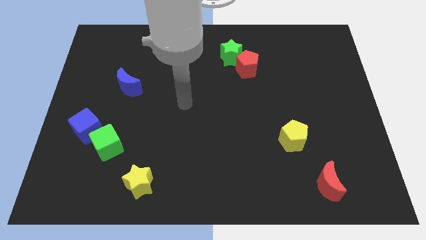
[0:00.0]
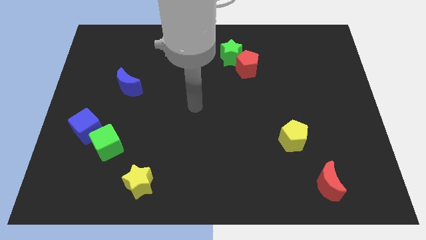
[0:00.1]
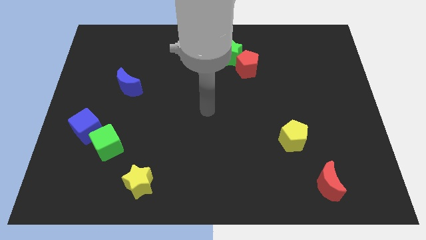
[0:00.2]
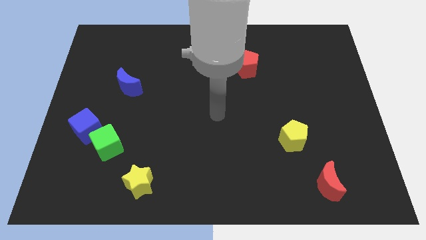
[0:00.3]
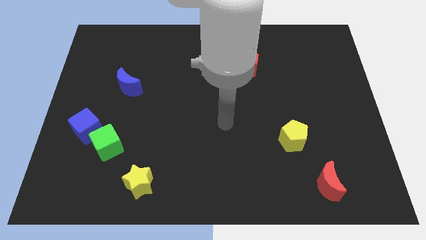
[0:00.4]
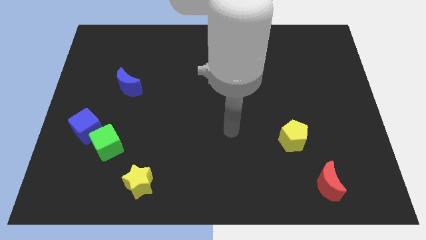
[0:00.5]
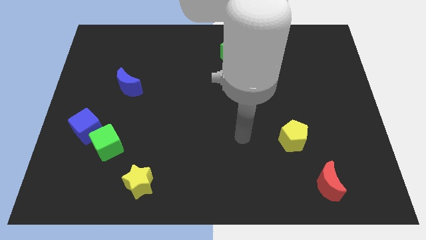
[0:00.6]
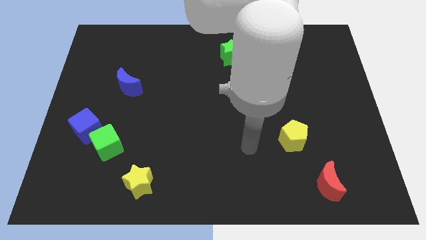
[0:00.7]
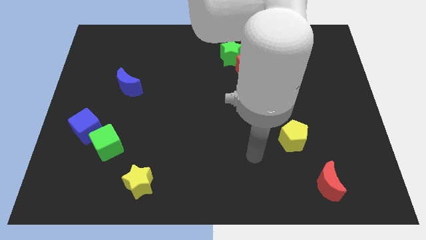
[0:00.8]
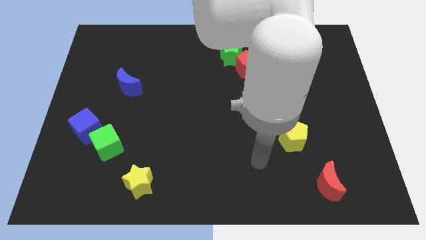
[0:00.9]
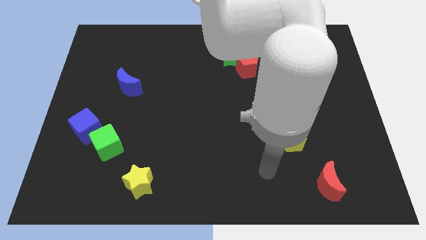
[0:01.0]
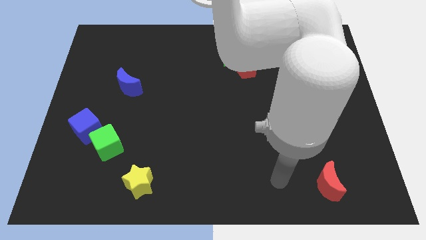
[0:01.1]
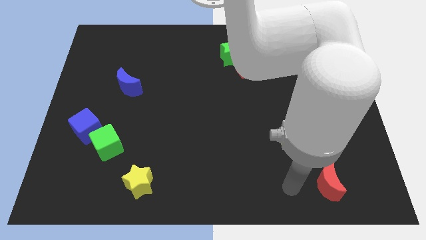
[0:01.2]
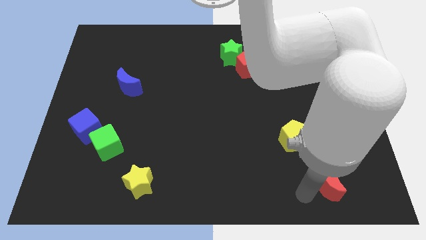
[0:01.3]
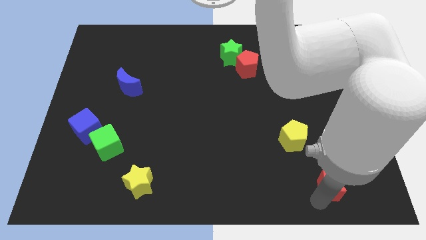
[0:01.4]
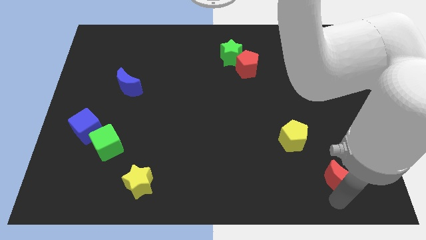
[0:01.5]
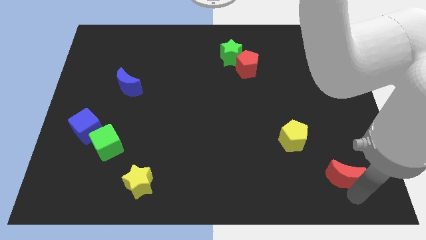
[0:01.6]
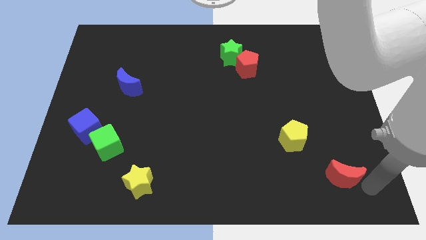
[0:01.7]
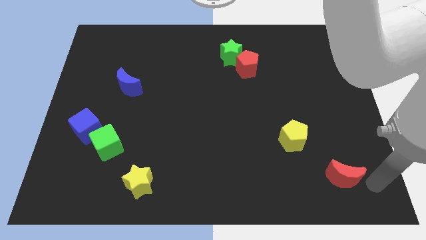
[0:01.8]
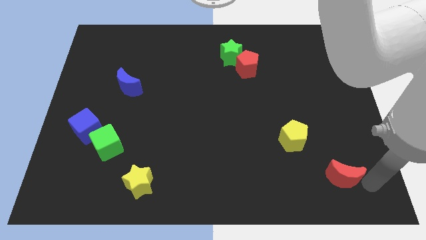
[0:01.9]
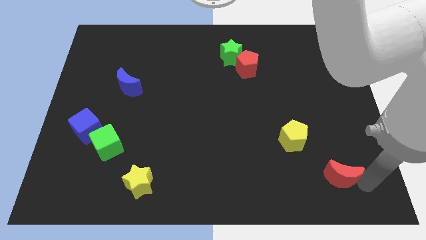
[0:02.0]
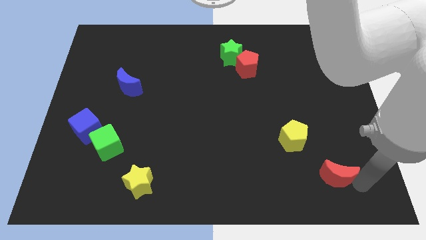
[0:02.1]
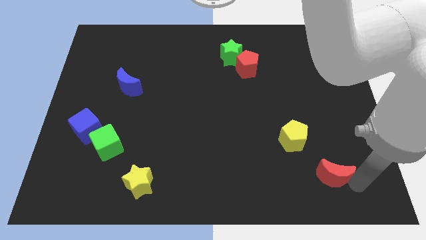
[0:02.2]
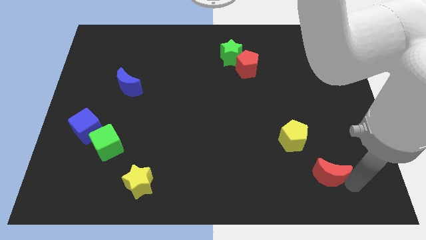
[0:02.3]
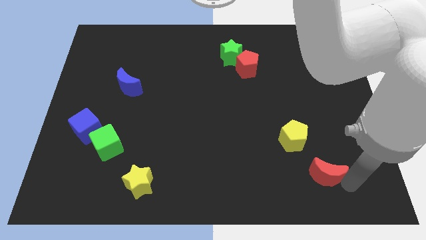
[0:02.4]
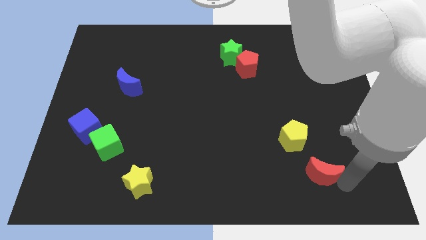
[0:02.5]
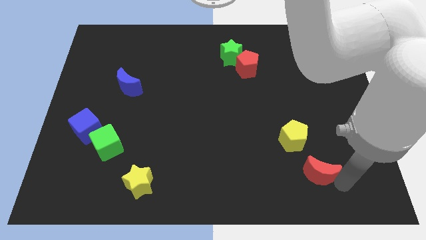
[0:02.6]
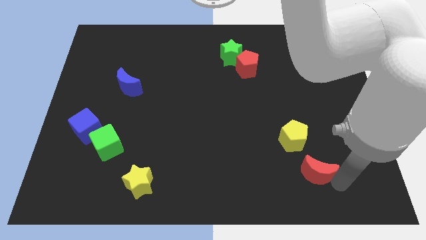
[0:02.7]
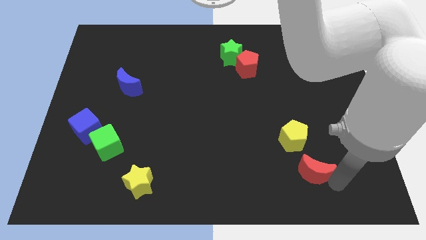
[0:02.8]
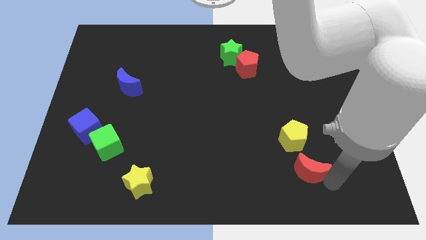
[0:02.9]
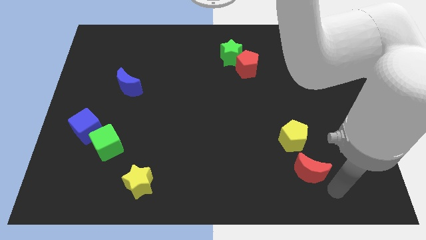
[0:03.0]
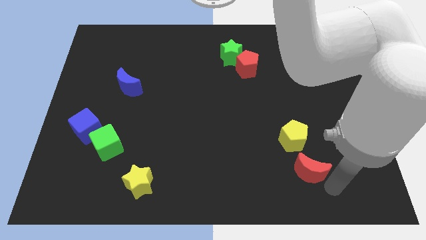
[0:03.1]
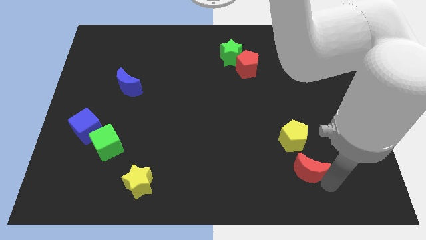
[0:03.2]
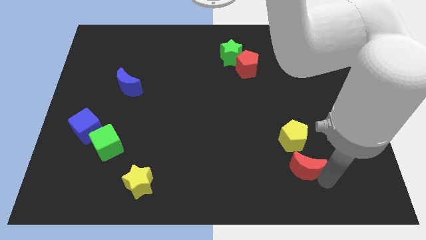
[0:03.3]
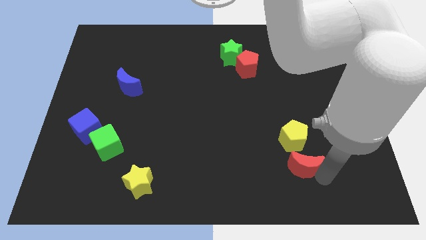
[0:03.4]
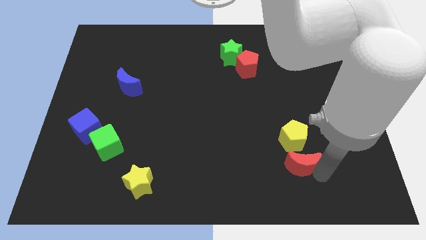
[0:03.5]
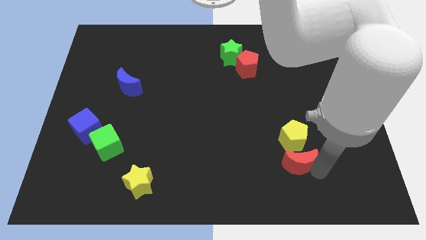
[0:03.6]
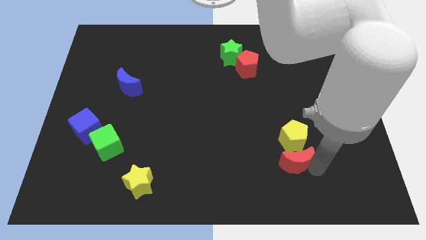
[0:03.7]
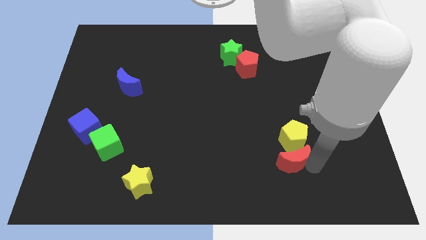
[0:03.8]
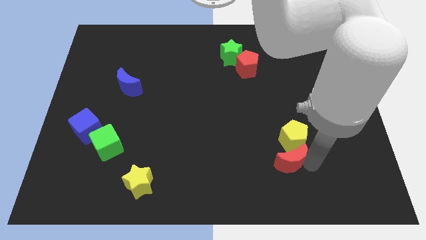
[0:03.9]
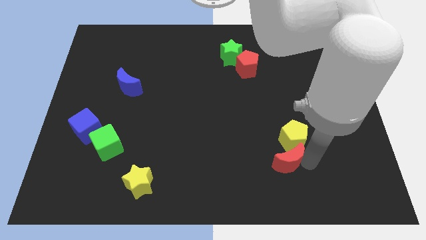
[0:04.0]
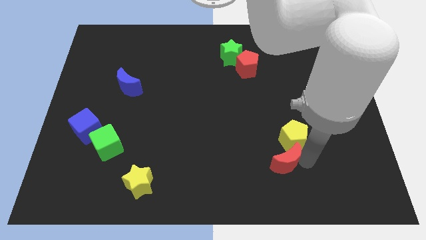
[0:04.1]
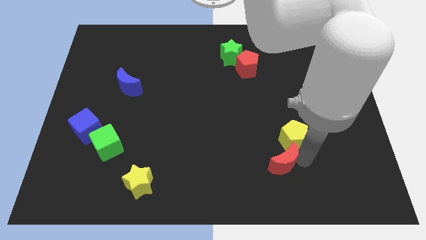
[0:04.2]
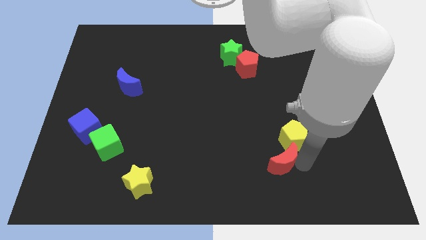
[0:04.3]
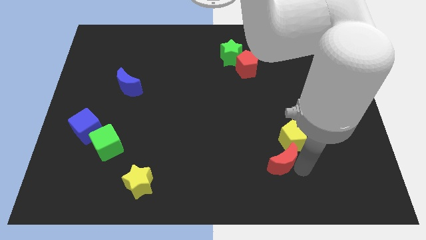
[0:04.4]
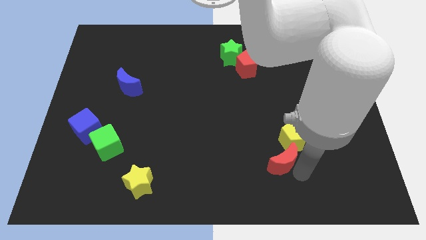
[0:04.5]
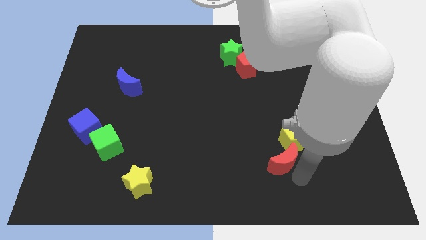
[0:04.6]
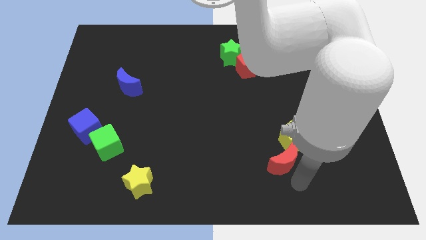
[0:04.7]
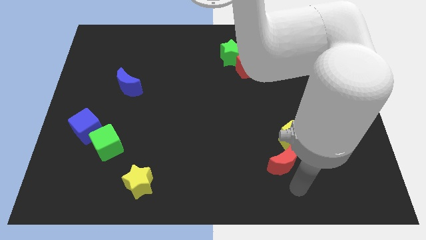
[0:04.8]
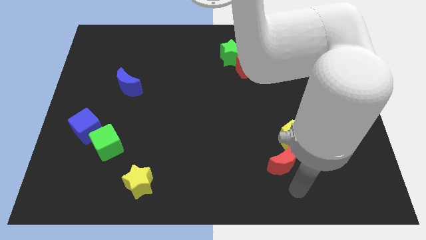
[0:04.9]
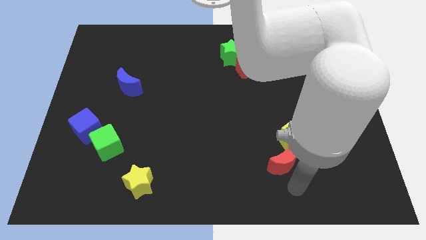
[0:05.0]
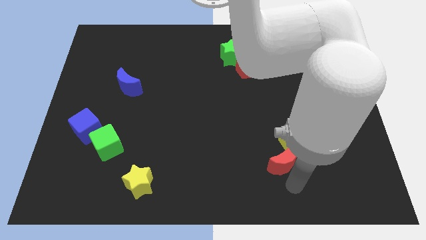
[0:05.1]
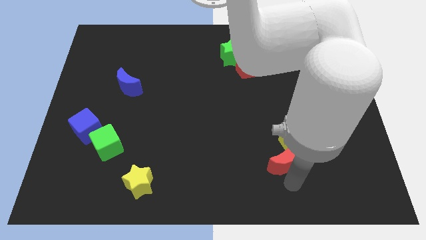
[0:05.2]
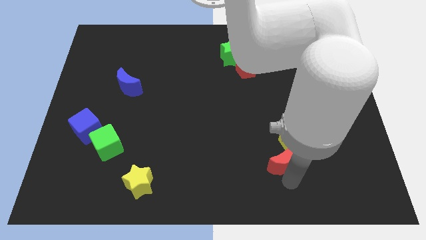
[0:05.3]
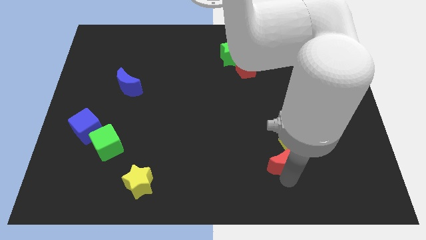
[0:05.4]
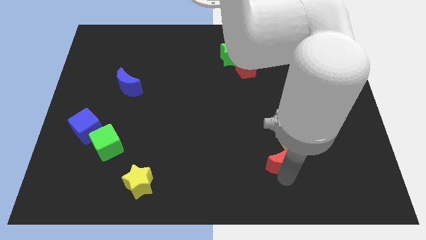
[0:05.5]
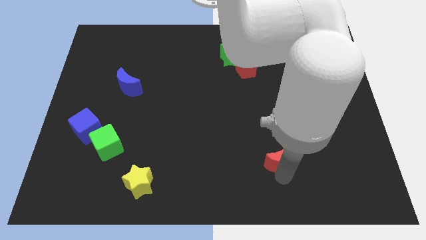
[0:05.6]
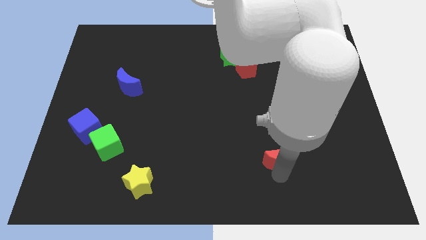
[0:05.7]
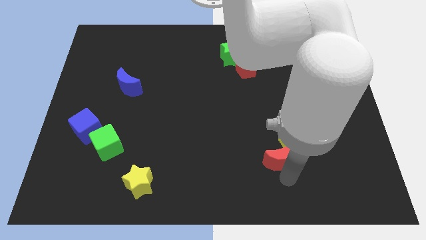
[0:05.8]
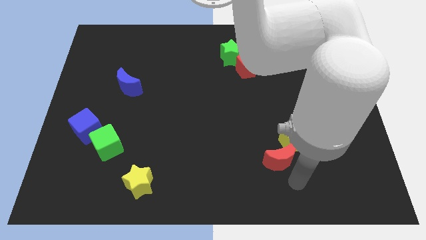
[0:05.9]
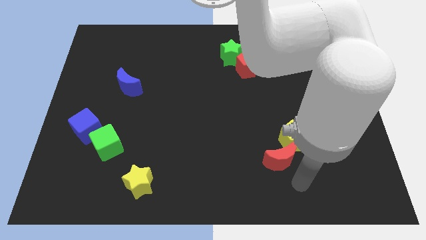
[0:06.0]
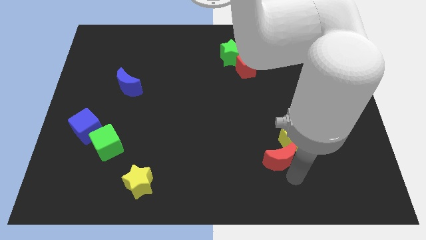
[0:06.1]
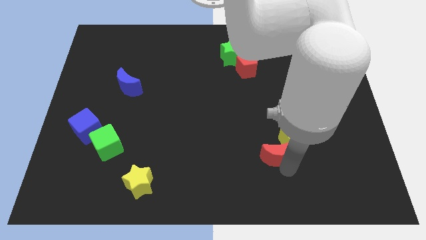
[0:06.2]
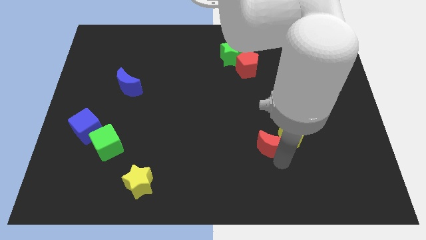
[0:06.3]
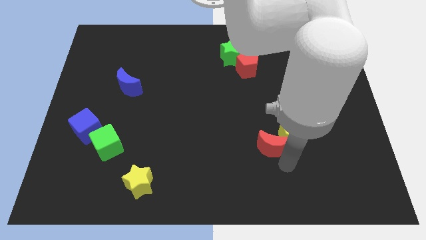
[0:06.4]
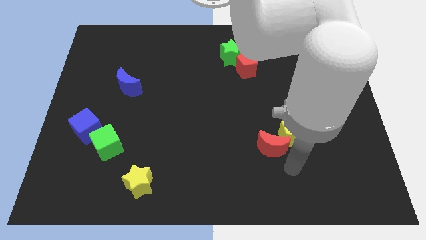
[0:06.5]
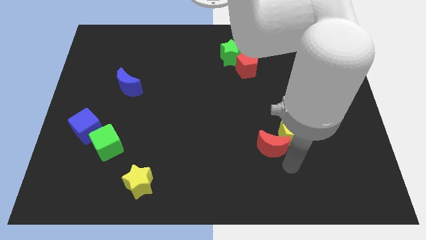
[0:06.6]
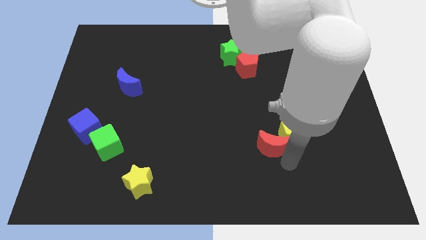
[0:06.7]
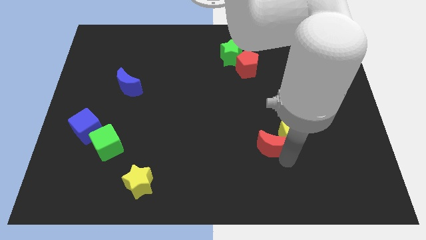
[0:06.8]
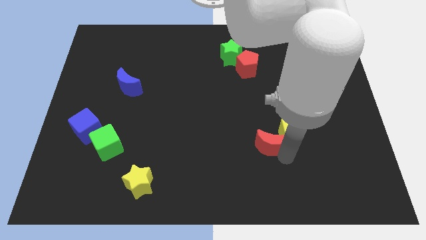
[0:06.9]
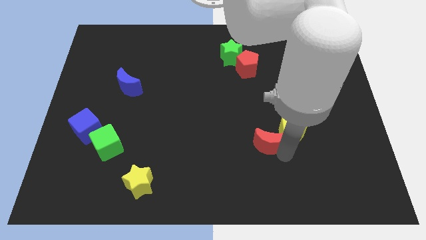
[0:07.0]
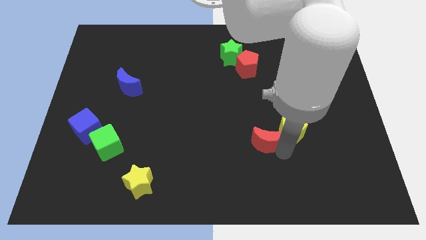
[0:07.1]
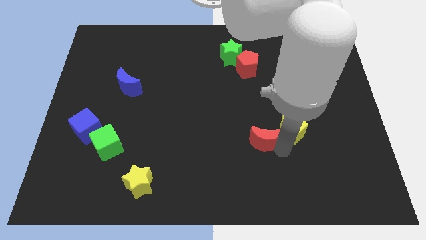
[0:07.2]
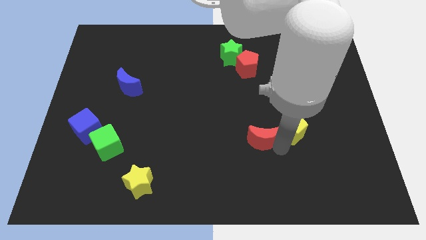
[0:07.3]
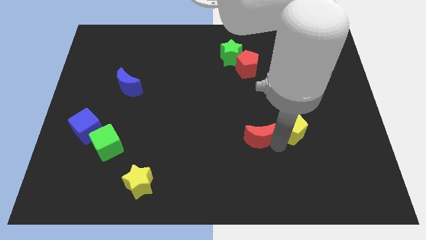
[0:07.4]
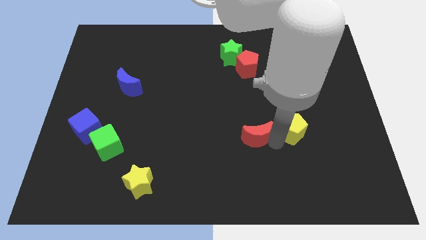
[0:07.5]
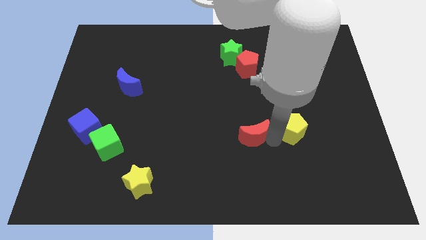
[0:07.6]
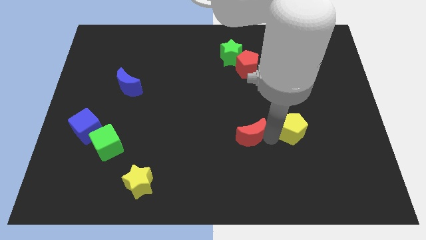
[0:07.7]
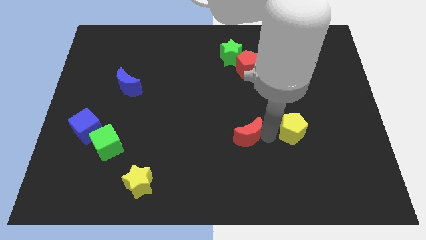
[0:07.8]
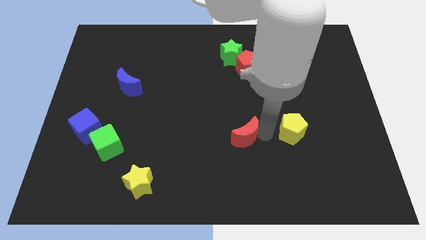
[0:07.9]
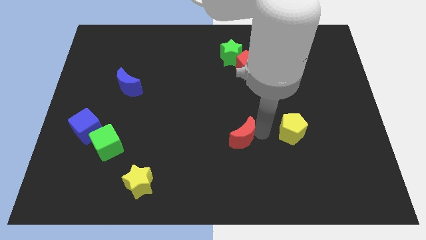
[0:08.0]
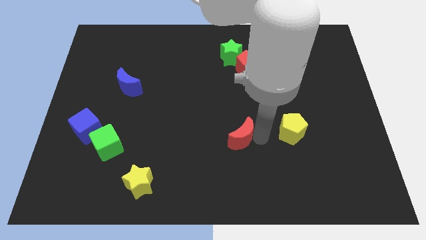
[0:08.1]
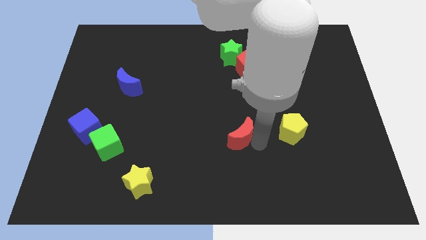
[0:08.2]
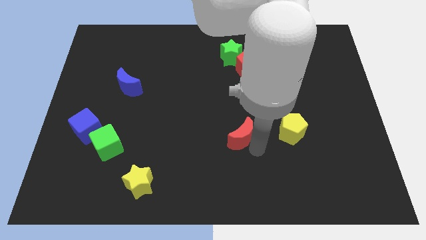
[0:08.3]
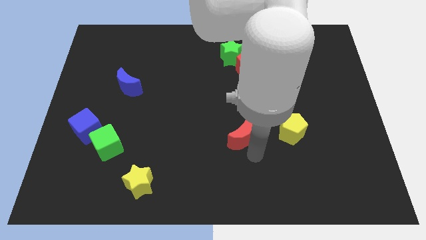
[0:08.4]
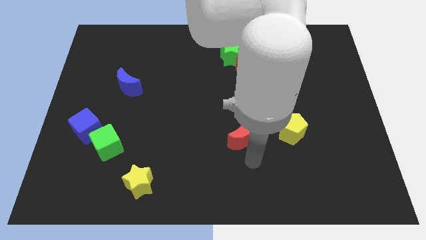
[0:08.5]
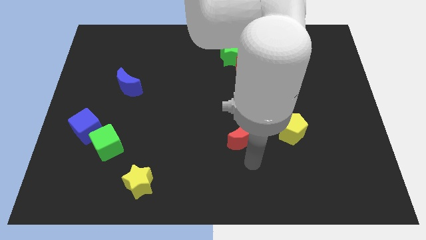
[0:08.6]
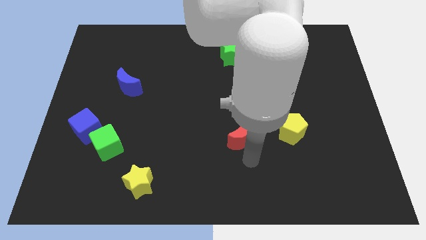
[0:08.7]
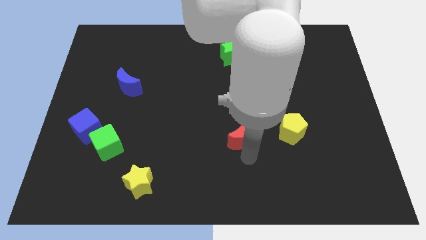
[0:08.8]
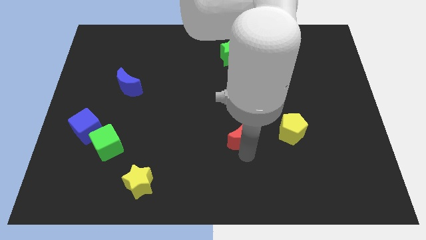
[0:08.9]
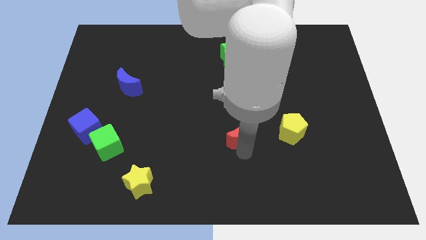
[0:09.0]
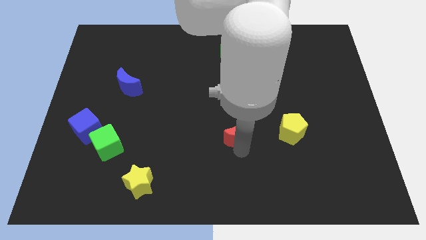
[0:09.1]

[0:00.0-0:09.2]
push the red moon upwards and then to the left
